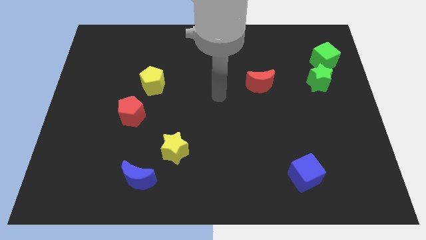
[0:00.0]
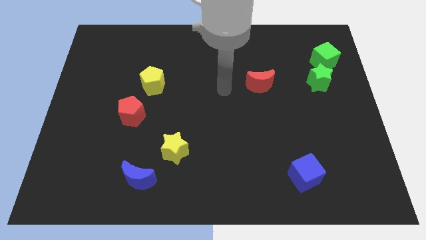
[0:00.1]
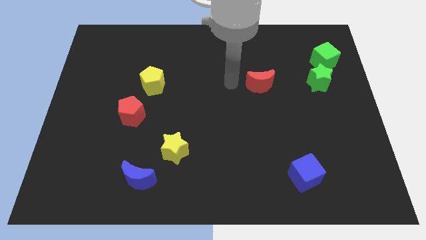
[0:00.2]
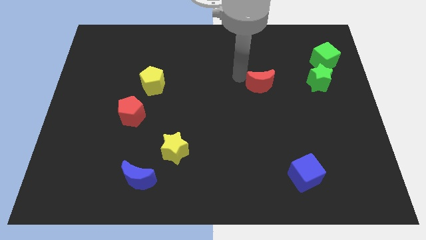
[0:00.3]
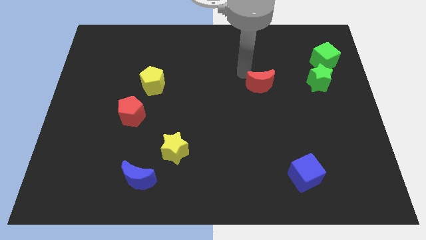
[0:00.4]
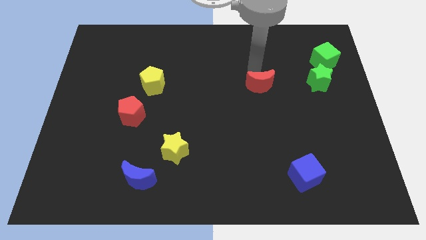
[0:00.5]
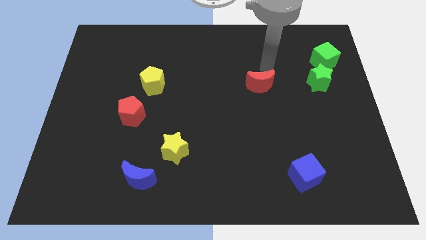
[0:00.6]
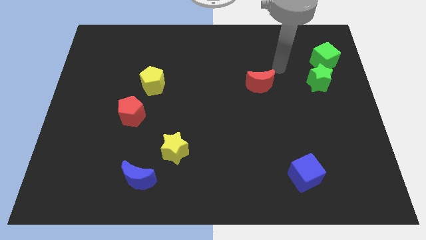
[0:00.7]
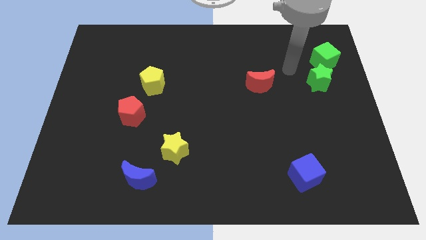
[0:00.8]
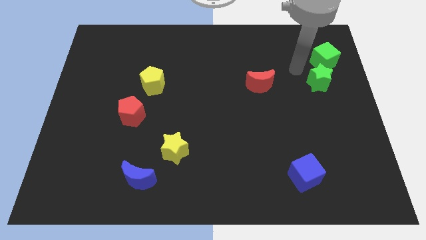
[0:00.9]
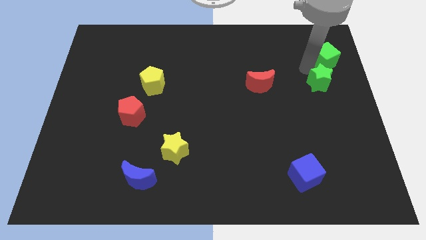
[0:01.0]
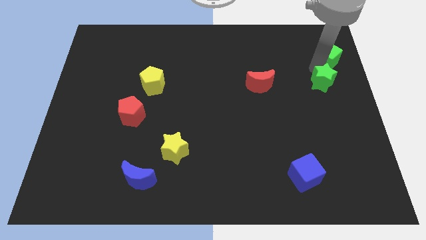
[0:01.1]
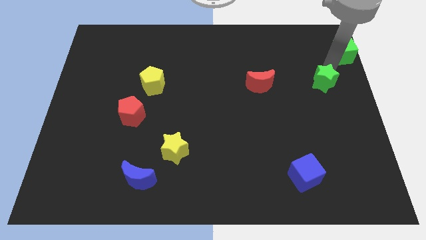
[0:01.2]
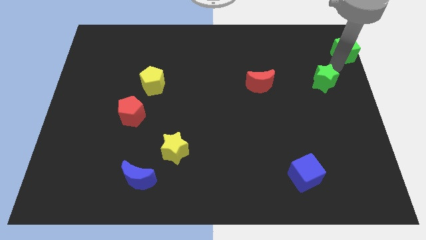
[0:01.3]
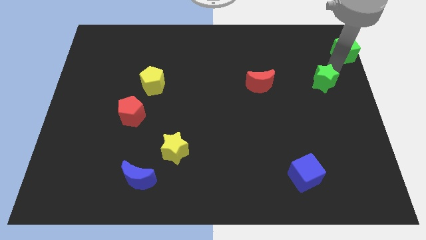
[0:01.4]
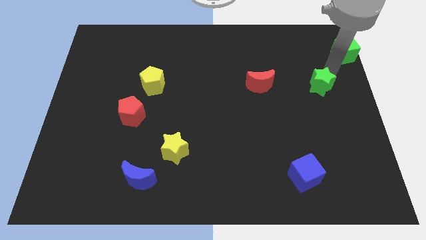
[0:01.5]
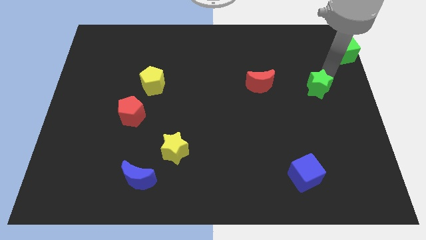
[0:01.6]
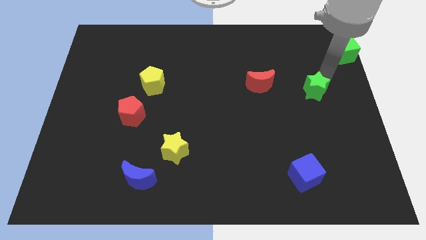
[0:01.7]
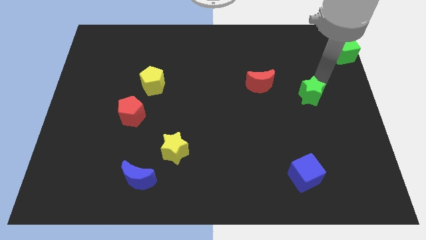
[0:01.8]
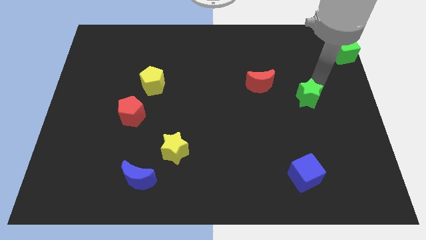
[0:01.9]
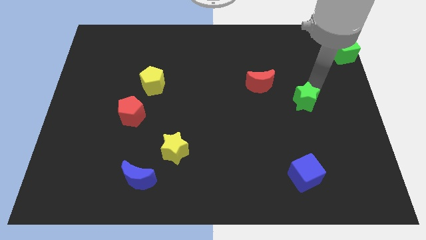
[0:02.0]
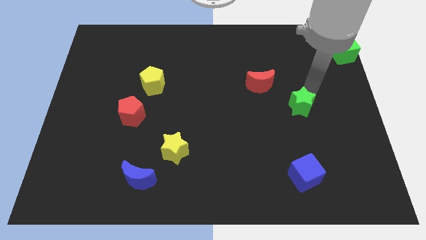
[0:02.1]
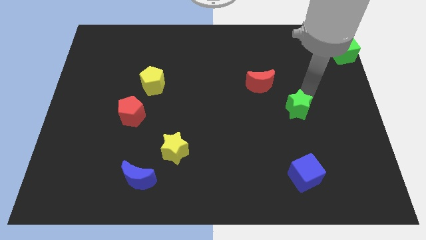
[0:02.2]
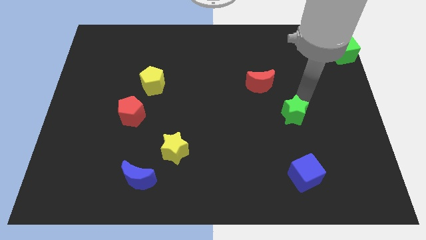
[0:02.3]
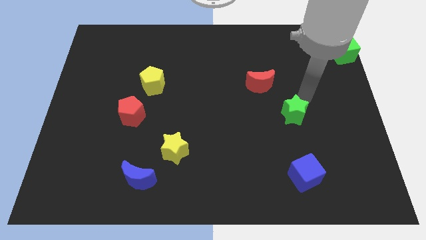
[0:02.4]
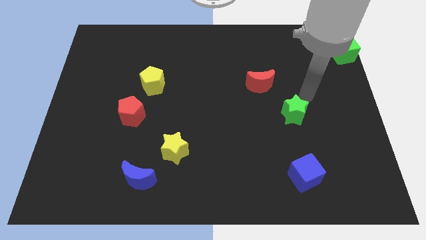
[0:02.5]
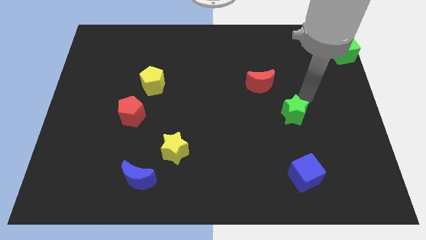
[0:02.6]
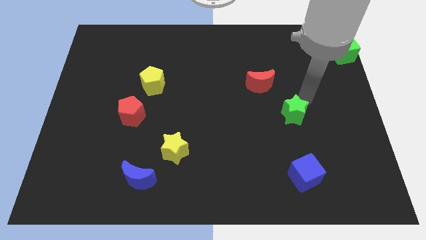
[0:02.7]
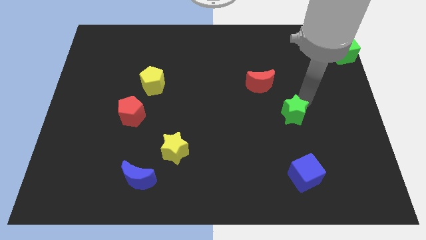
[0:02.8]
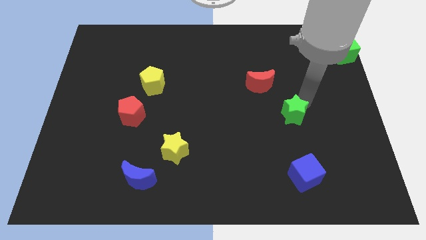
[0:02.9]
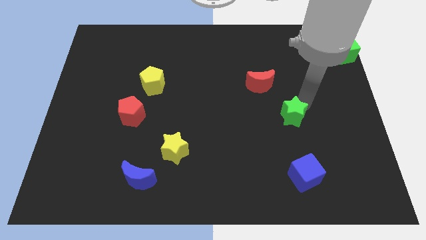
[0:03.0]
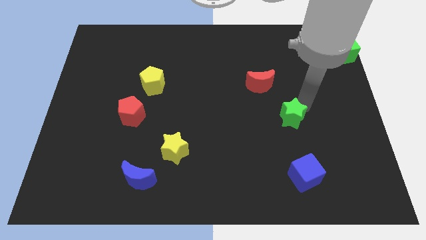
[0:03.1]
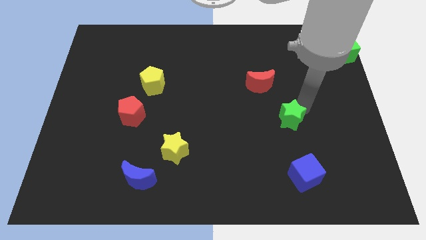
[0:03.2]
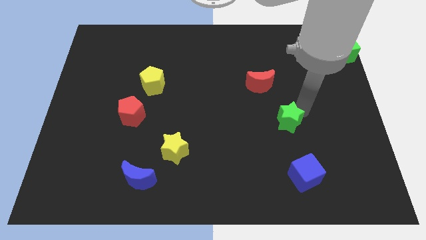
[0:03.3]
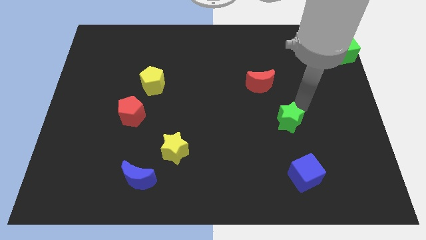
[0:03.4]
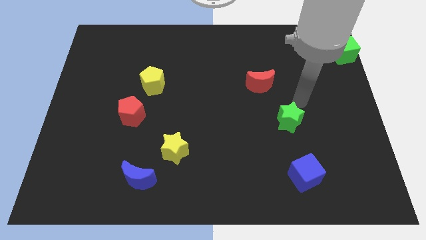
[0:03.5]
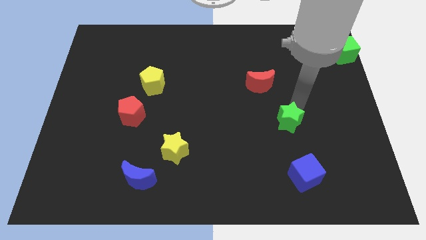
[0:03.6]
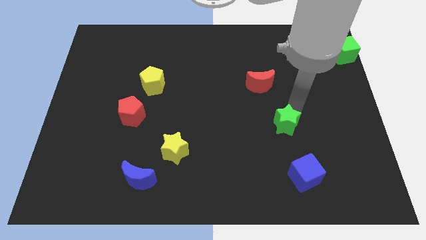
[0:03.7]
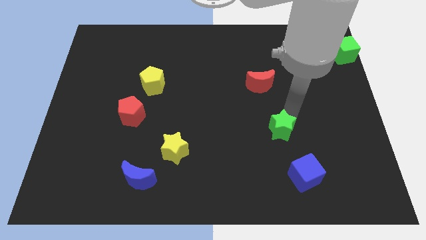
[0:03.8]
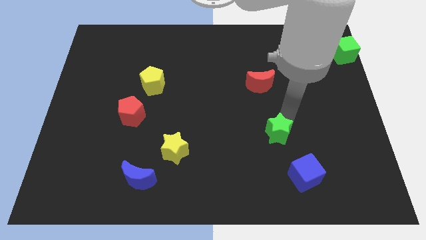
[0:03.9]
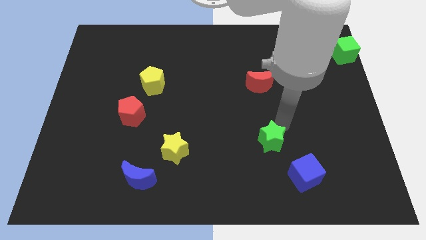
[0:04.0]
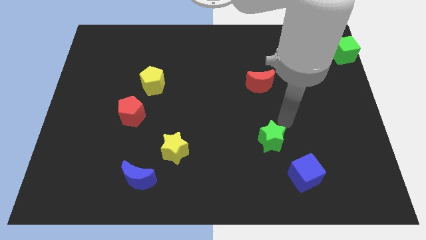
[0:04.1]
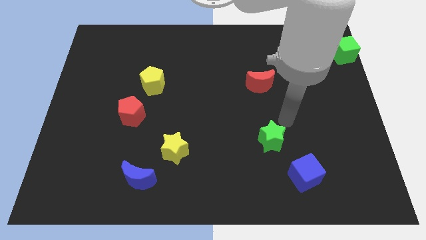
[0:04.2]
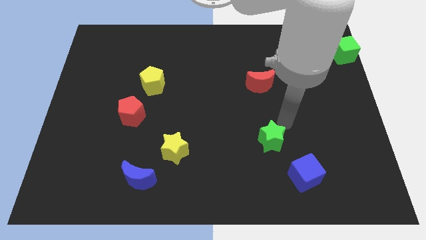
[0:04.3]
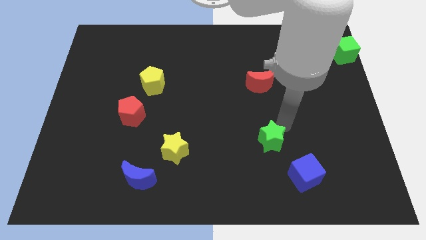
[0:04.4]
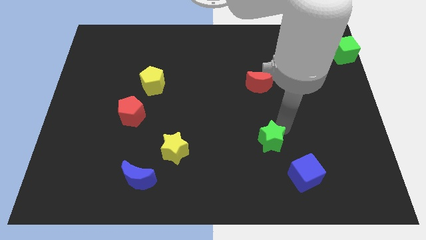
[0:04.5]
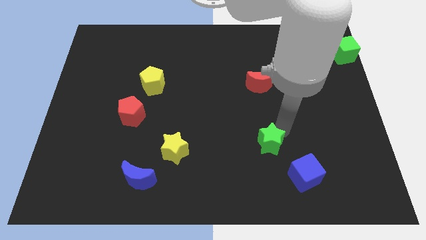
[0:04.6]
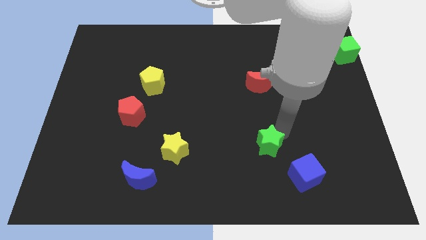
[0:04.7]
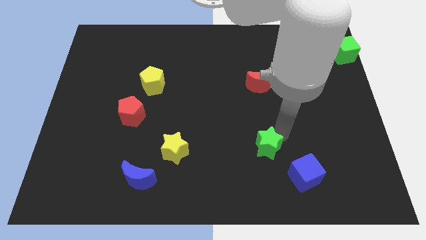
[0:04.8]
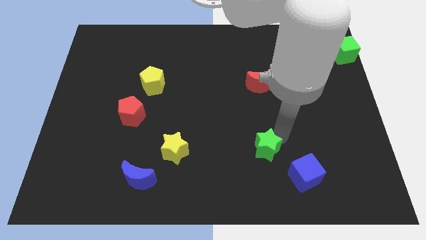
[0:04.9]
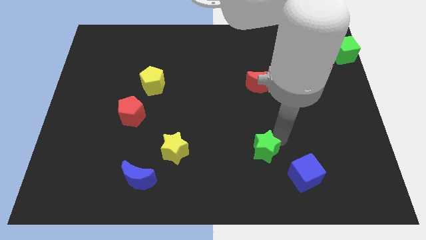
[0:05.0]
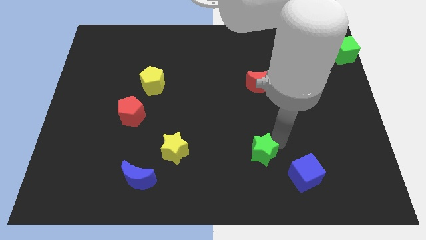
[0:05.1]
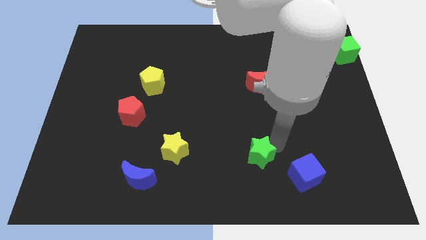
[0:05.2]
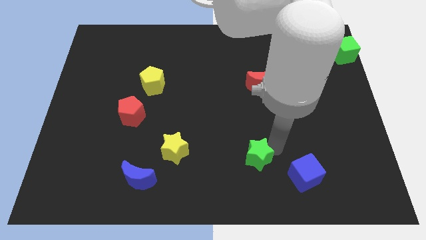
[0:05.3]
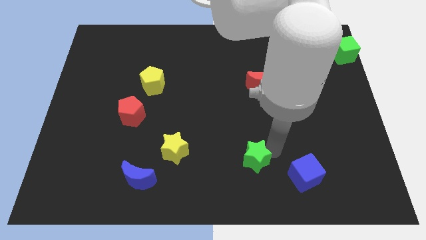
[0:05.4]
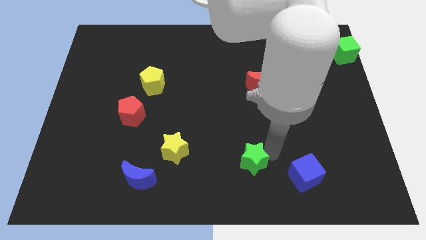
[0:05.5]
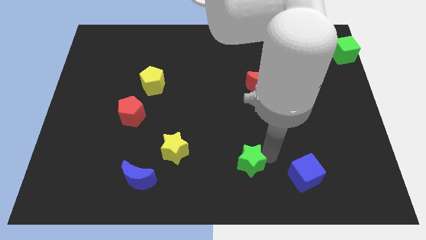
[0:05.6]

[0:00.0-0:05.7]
slide the green star to the bottom side

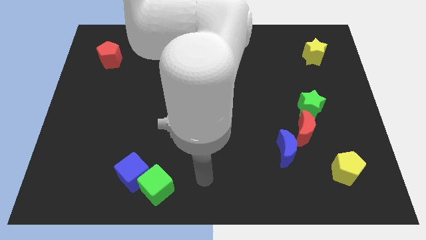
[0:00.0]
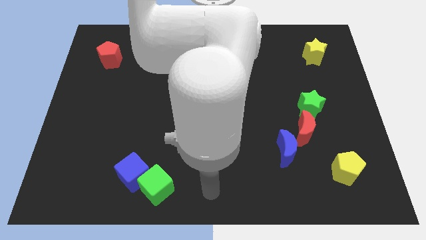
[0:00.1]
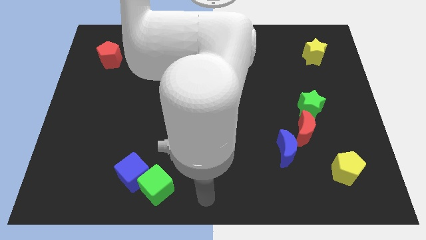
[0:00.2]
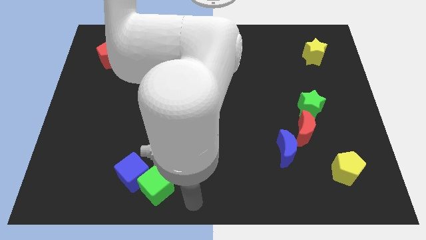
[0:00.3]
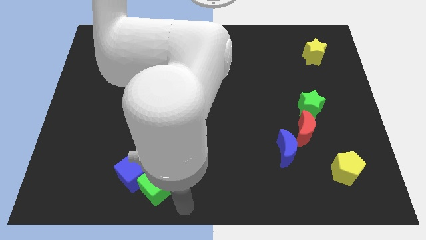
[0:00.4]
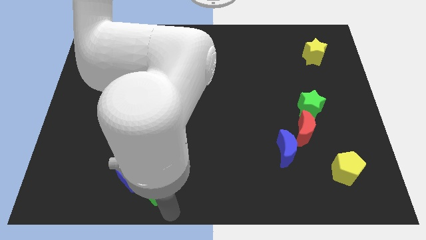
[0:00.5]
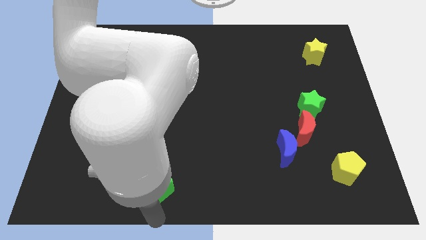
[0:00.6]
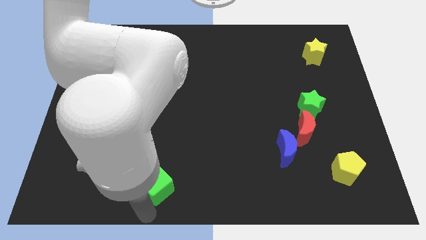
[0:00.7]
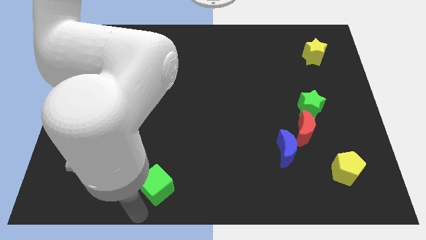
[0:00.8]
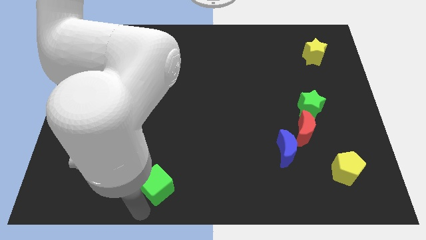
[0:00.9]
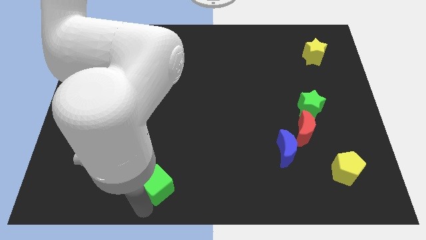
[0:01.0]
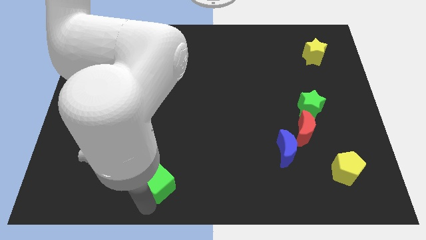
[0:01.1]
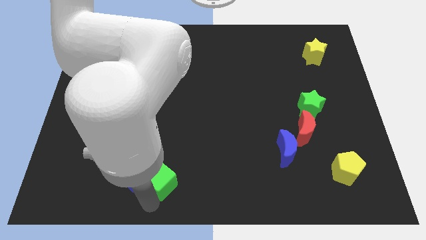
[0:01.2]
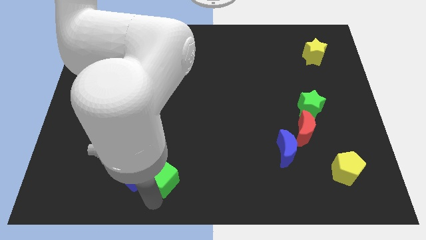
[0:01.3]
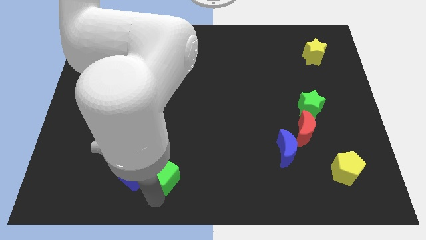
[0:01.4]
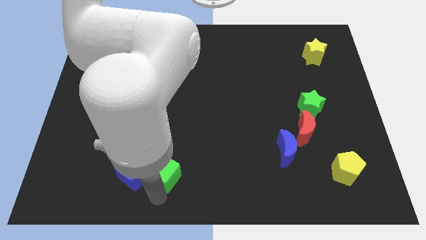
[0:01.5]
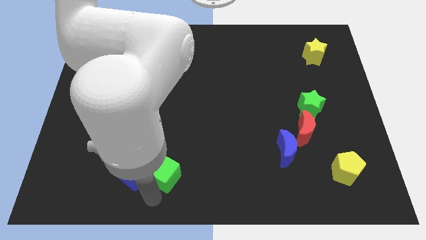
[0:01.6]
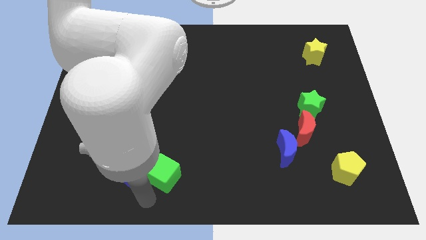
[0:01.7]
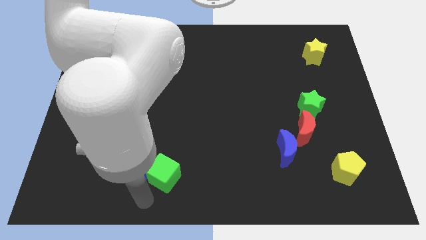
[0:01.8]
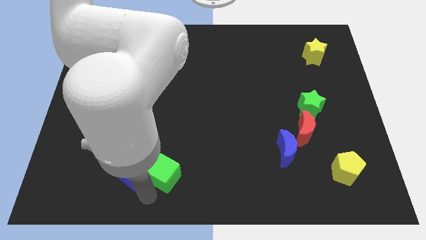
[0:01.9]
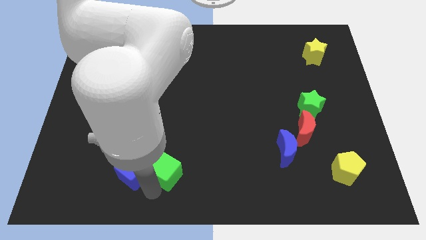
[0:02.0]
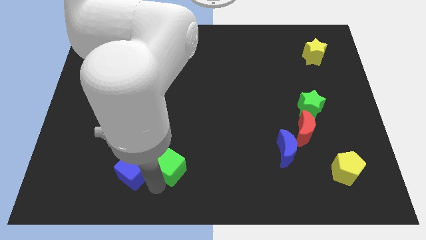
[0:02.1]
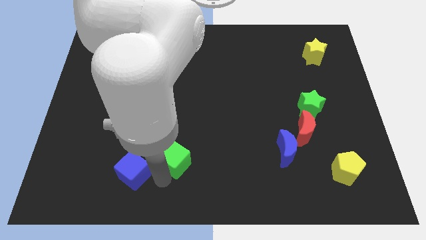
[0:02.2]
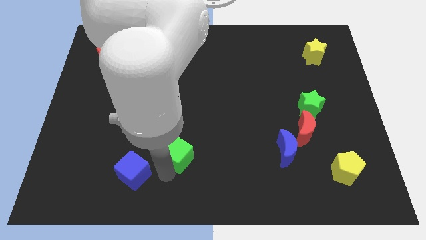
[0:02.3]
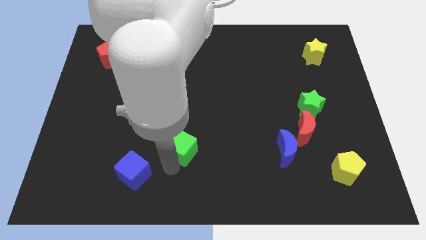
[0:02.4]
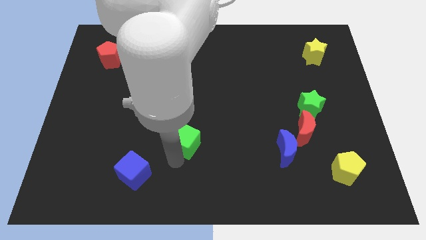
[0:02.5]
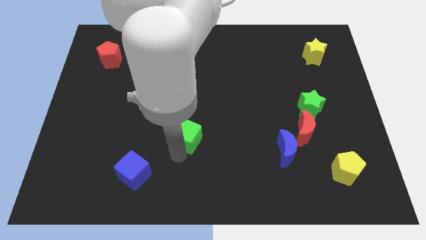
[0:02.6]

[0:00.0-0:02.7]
push the green cube to the center of the board
